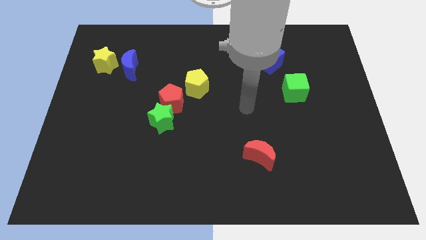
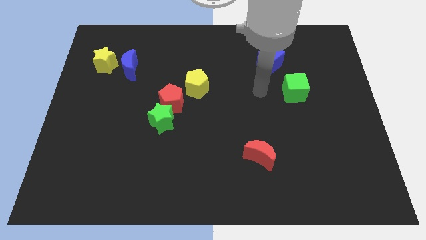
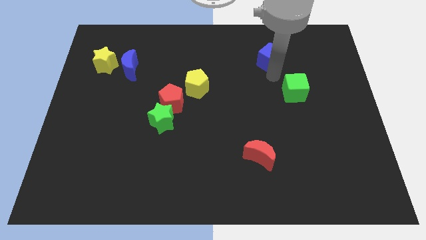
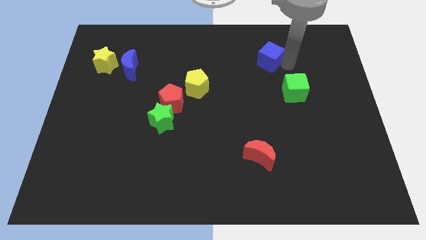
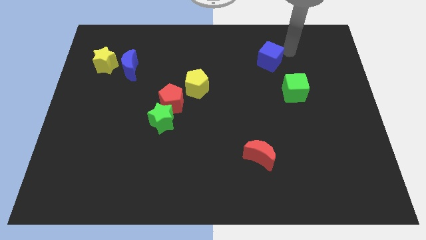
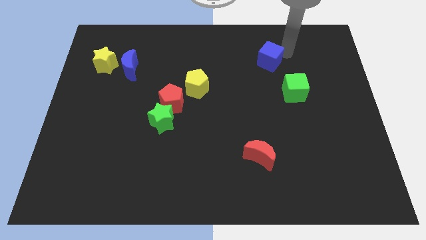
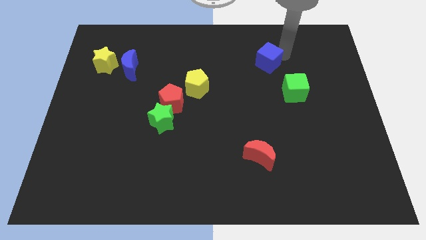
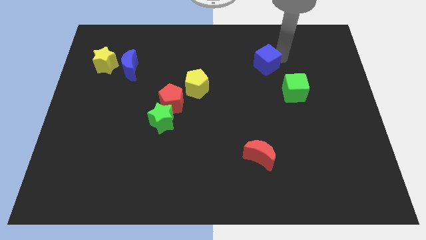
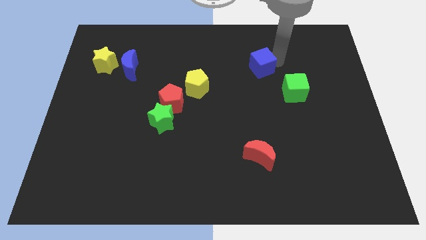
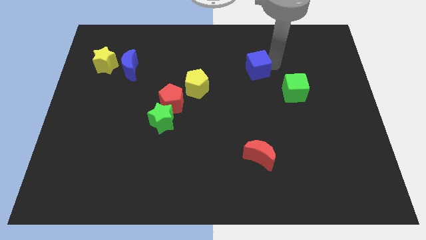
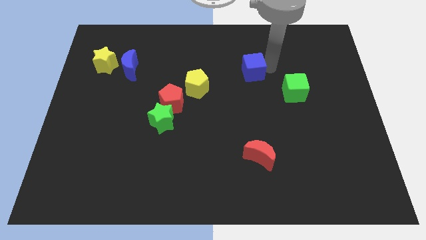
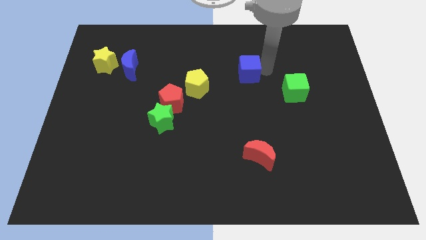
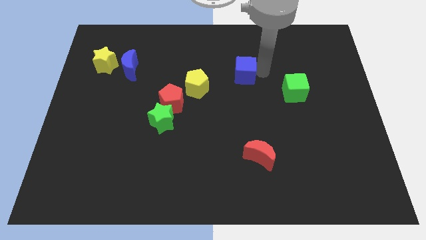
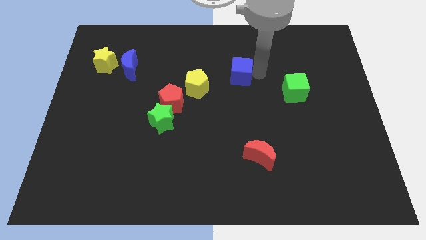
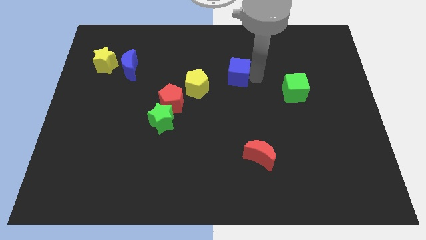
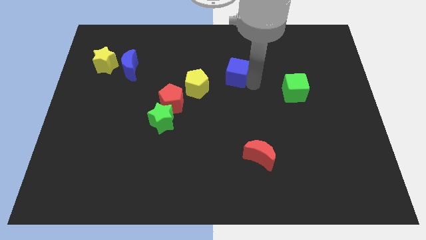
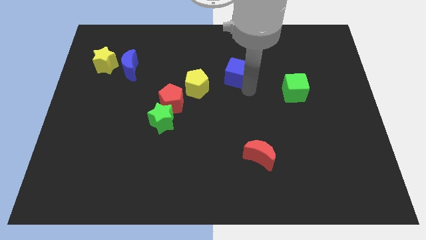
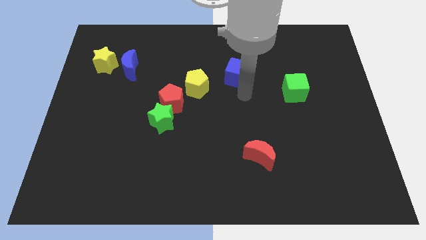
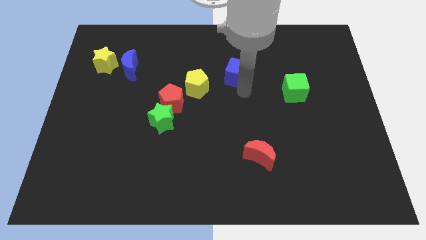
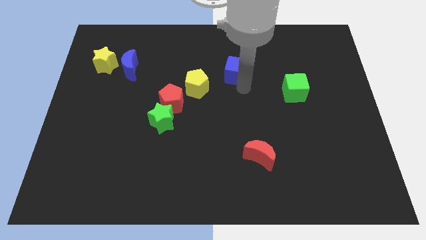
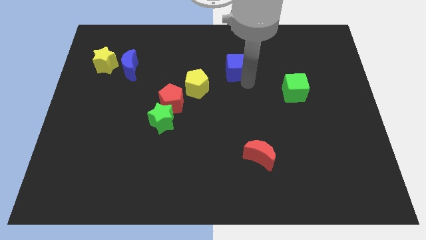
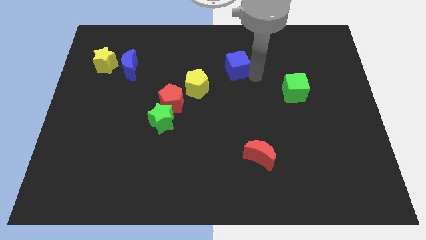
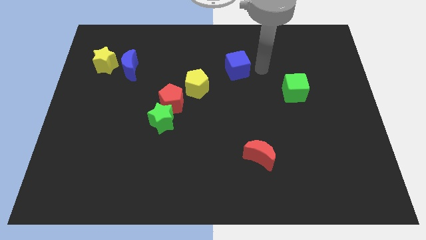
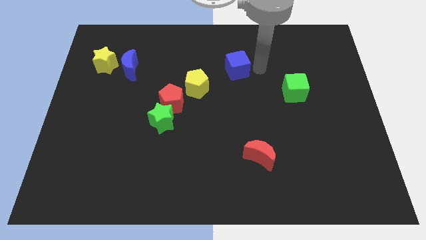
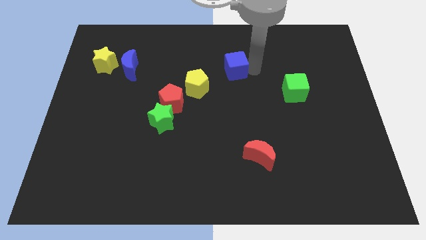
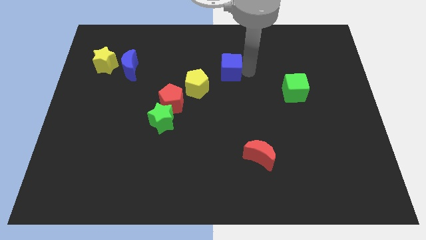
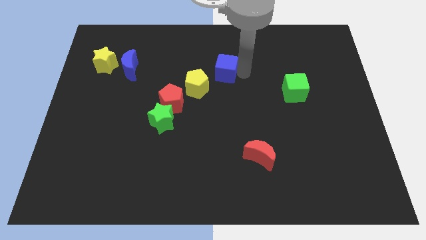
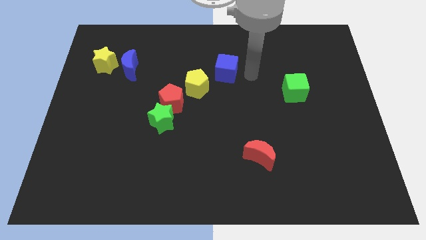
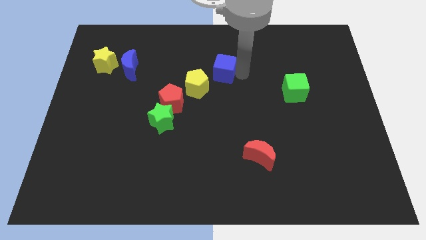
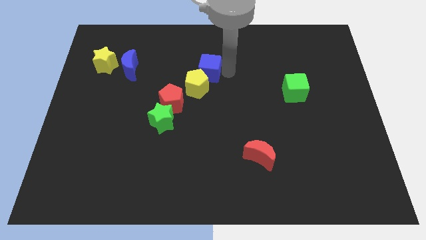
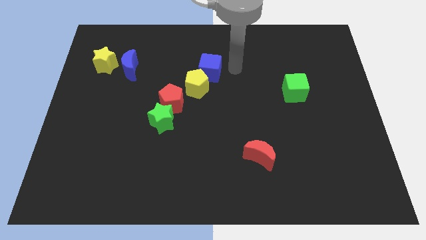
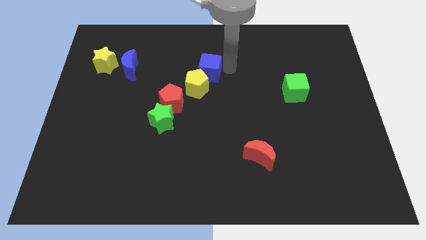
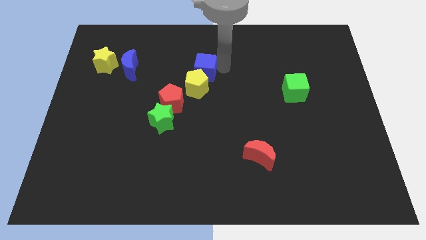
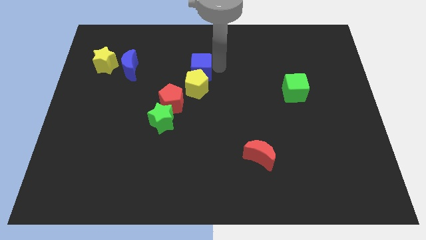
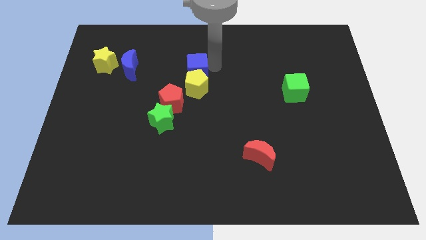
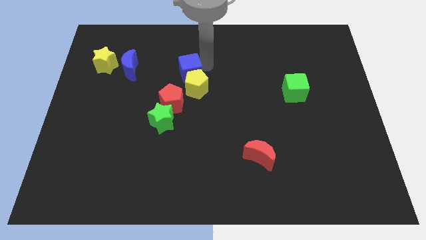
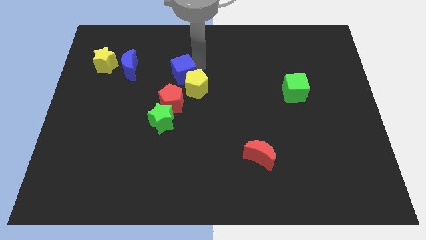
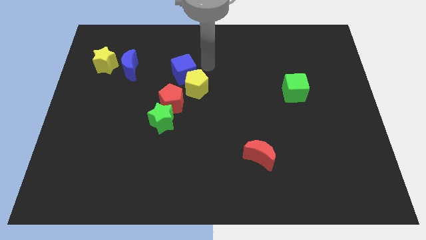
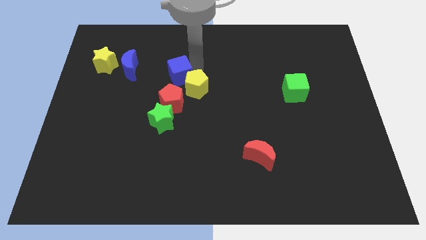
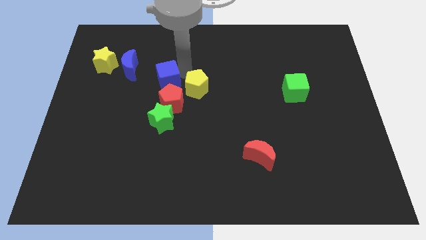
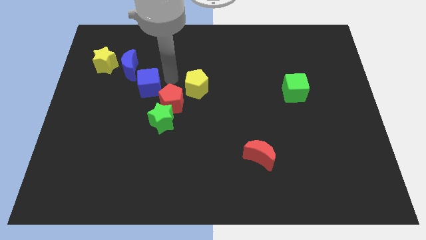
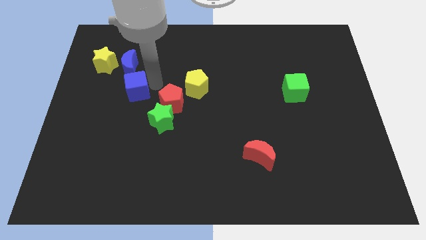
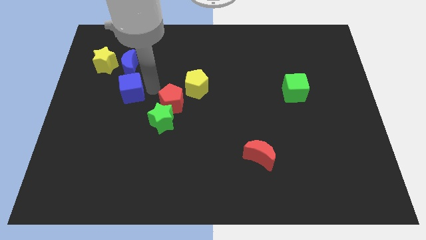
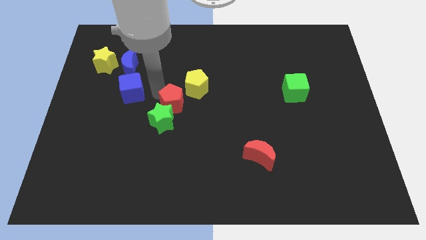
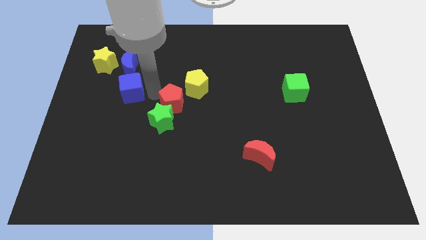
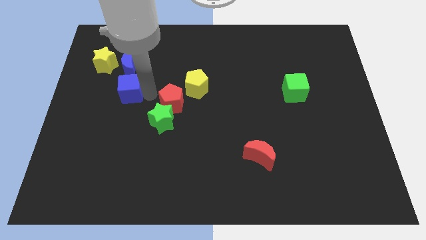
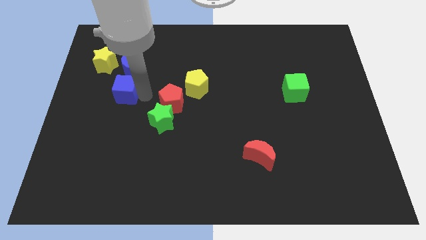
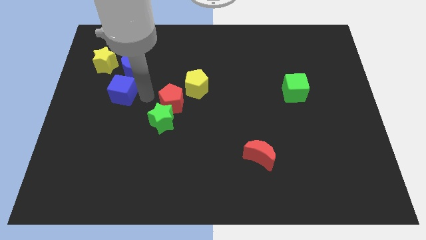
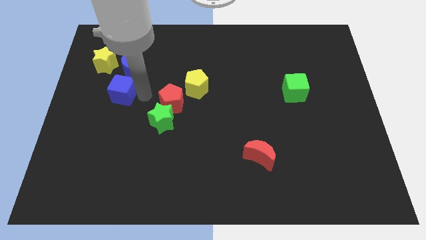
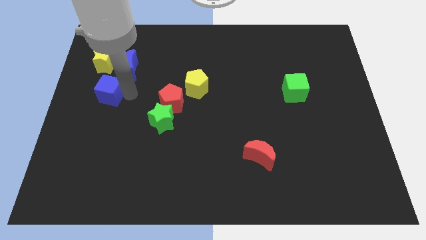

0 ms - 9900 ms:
slide the blue cube to the left side
